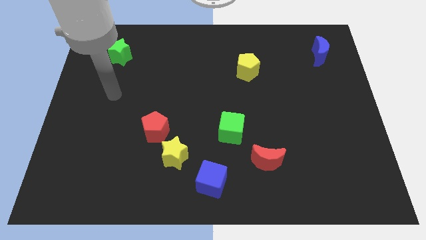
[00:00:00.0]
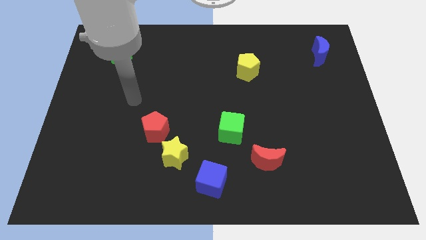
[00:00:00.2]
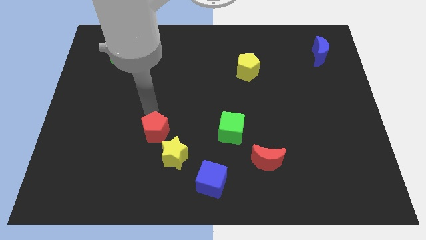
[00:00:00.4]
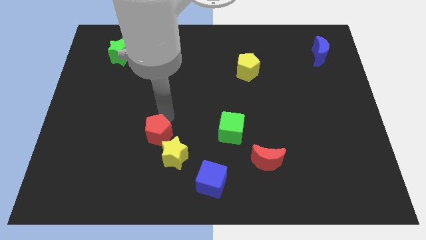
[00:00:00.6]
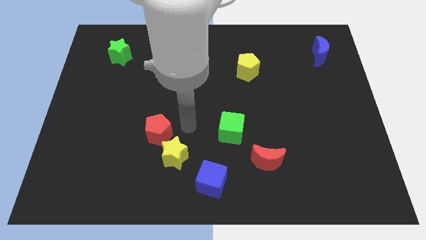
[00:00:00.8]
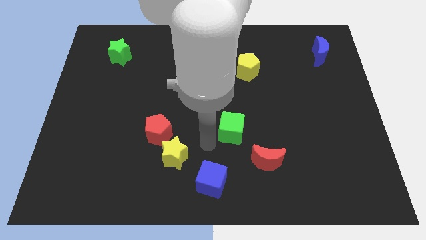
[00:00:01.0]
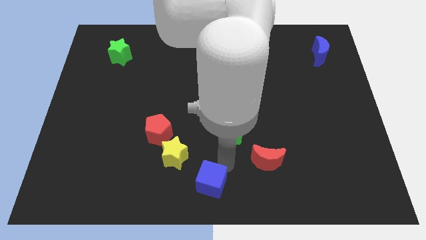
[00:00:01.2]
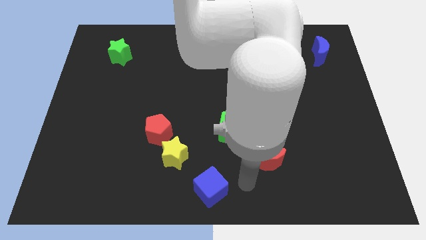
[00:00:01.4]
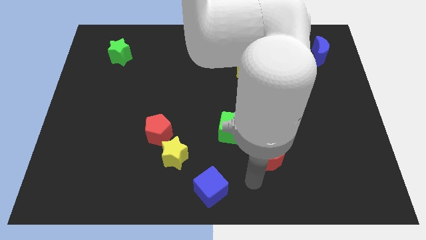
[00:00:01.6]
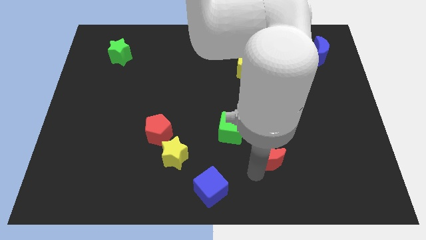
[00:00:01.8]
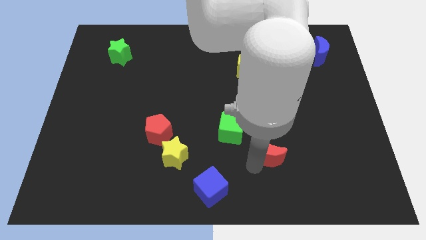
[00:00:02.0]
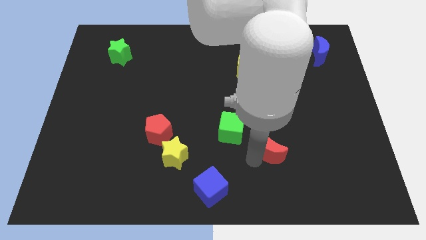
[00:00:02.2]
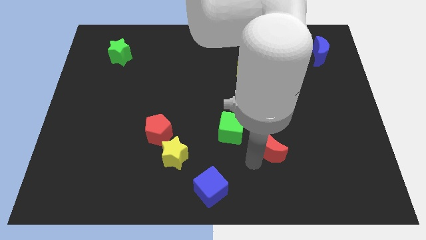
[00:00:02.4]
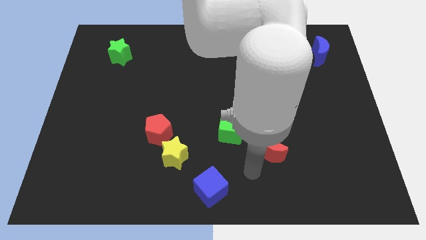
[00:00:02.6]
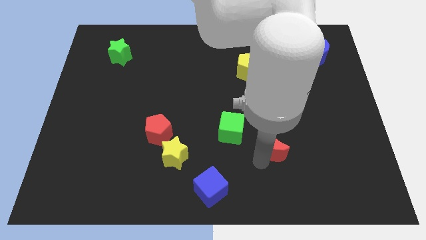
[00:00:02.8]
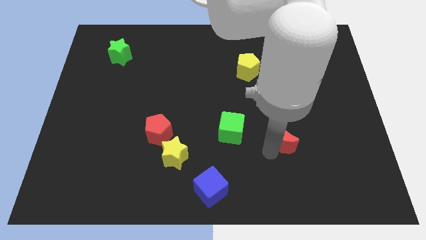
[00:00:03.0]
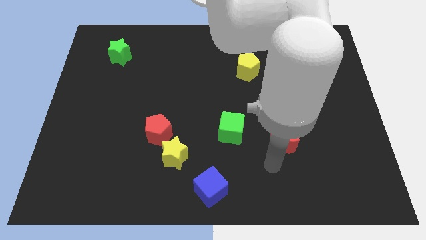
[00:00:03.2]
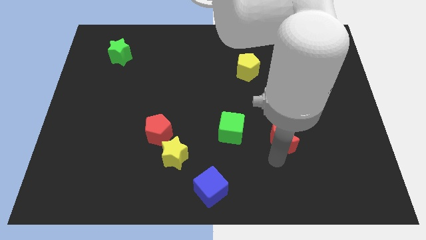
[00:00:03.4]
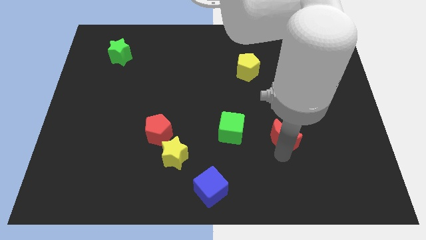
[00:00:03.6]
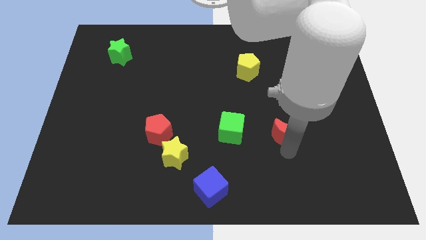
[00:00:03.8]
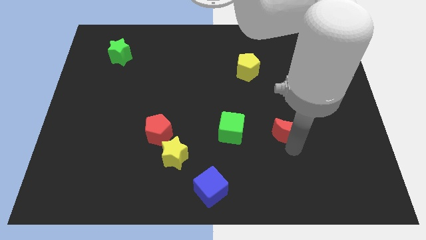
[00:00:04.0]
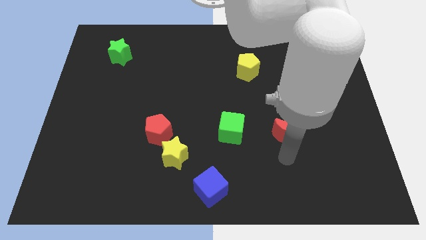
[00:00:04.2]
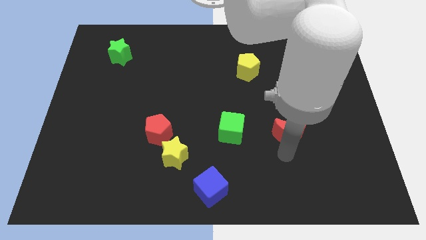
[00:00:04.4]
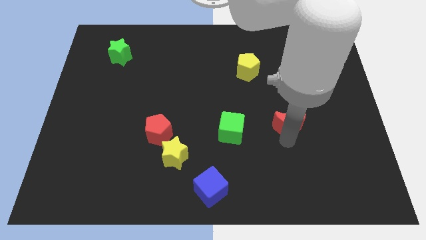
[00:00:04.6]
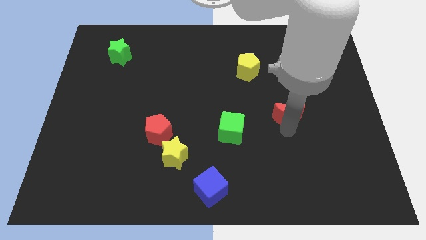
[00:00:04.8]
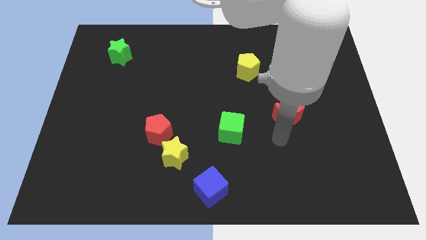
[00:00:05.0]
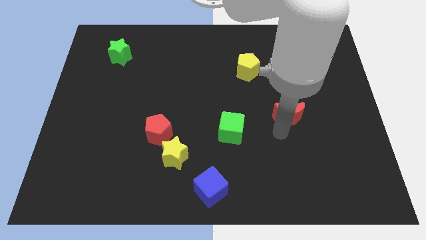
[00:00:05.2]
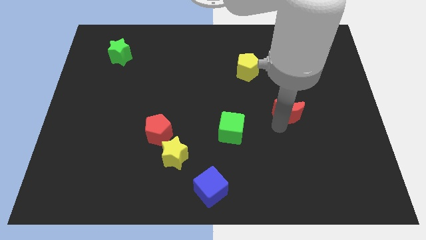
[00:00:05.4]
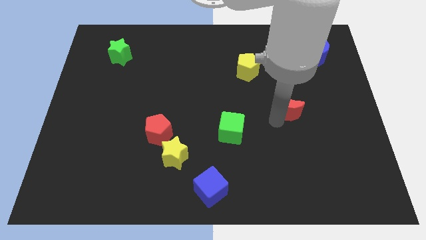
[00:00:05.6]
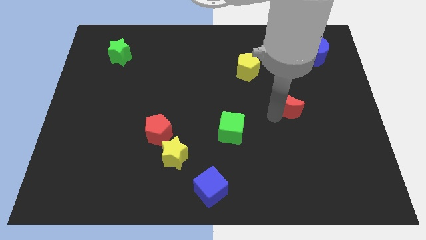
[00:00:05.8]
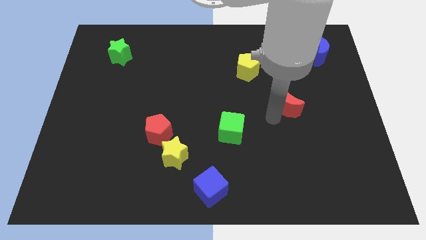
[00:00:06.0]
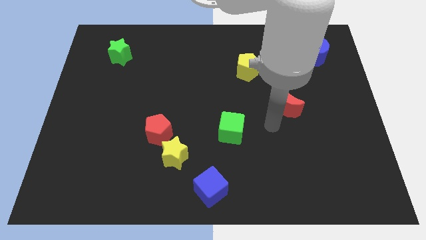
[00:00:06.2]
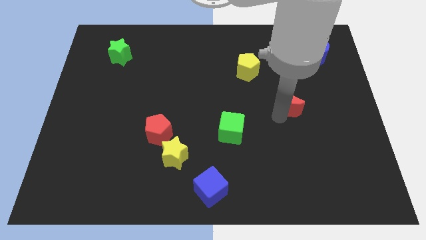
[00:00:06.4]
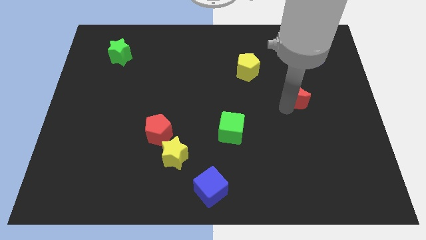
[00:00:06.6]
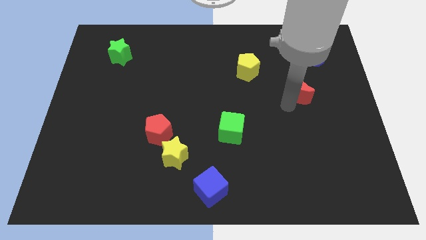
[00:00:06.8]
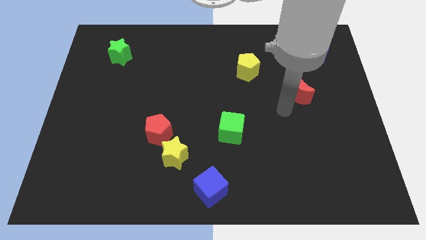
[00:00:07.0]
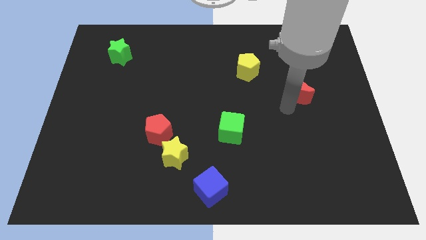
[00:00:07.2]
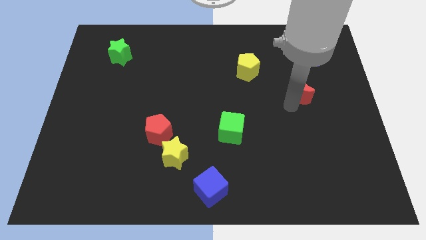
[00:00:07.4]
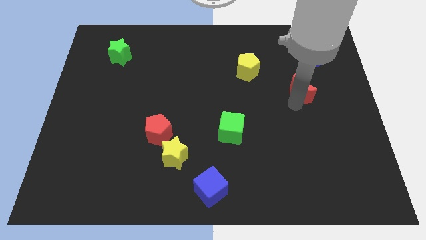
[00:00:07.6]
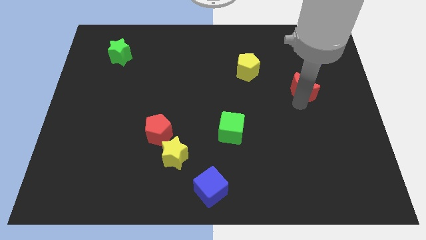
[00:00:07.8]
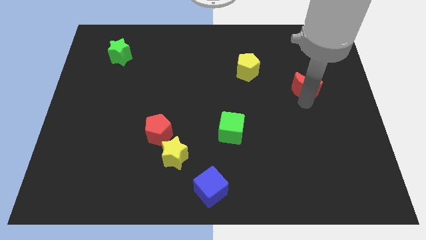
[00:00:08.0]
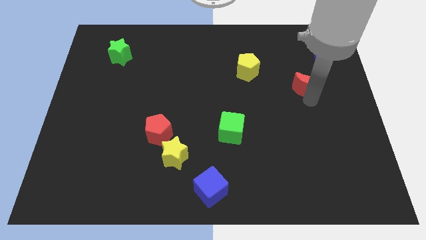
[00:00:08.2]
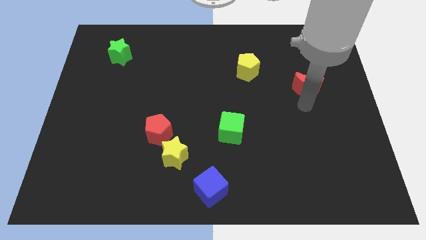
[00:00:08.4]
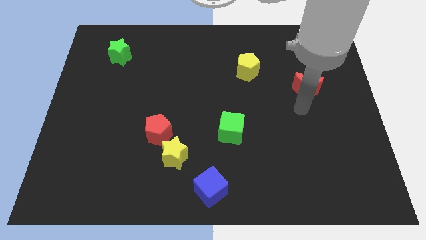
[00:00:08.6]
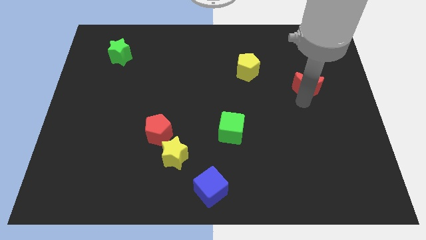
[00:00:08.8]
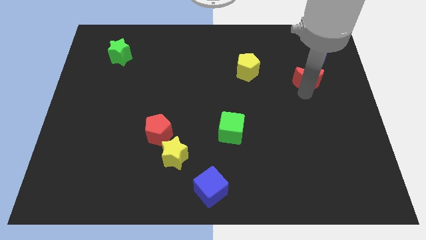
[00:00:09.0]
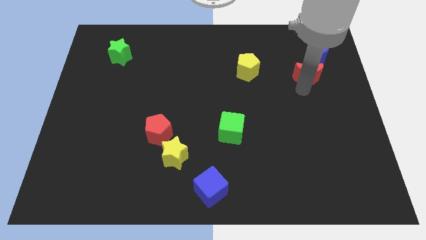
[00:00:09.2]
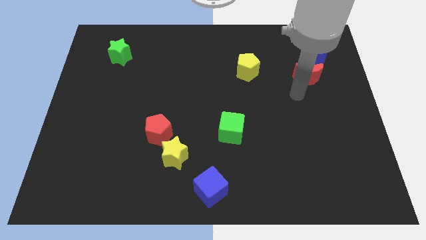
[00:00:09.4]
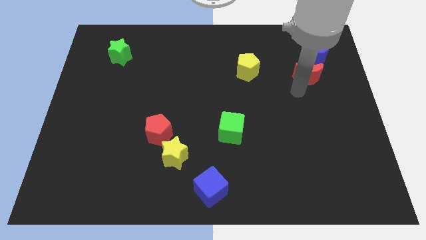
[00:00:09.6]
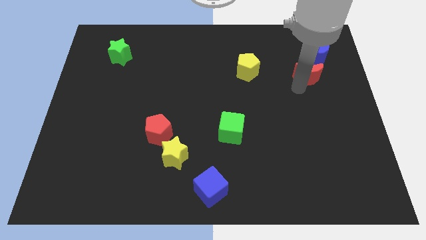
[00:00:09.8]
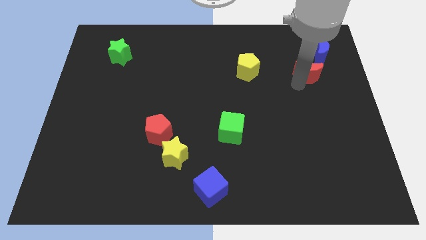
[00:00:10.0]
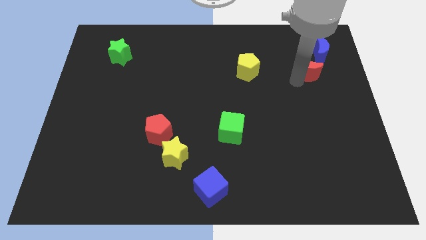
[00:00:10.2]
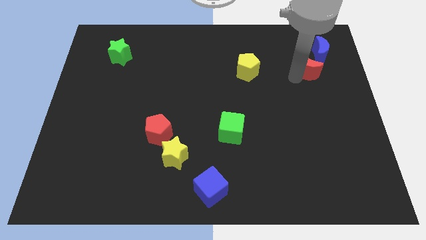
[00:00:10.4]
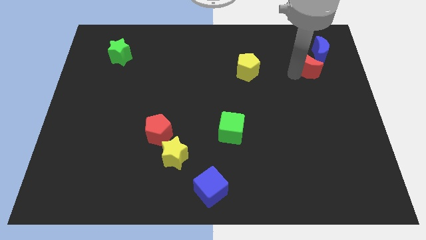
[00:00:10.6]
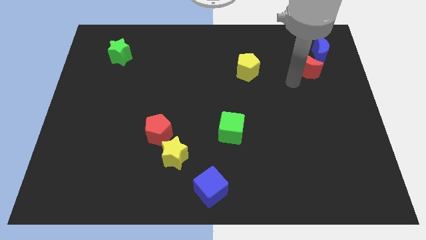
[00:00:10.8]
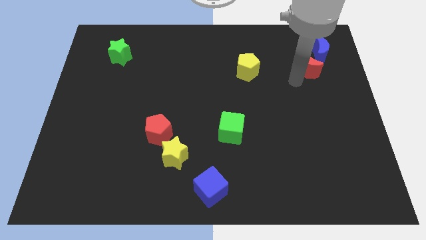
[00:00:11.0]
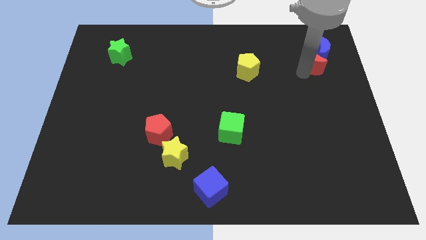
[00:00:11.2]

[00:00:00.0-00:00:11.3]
move the red moon next to the blue moon
